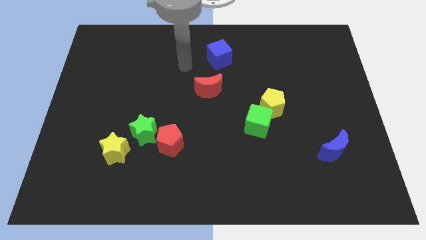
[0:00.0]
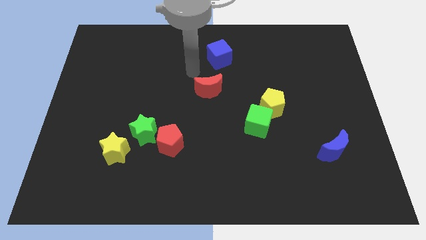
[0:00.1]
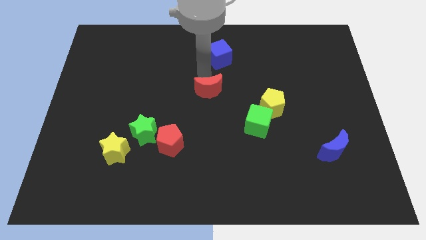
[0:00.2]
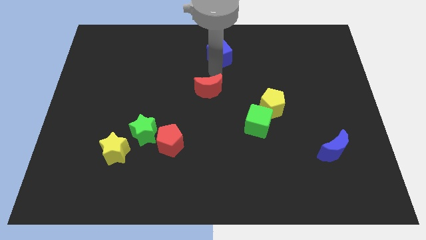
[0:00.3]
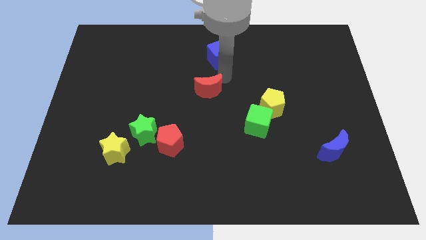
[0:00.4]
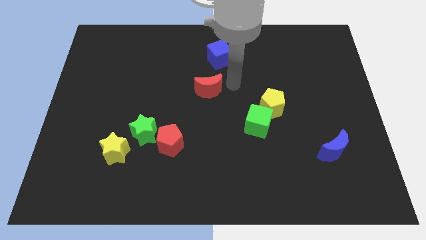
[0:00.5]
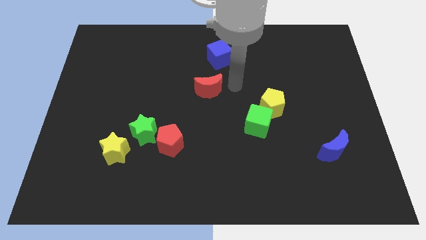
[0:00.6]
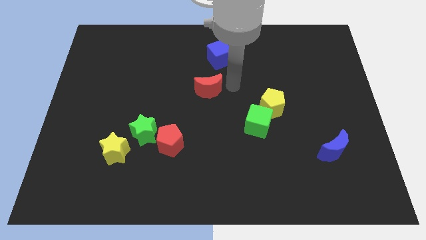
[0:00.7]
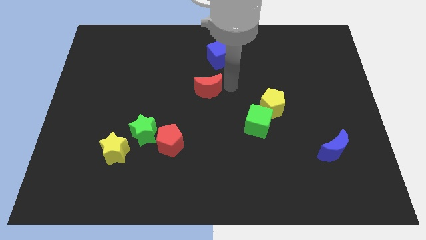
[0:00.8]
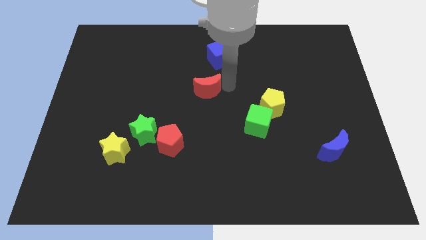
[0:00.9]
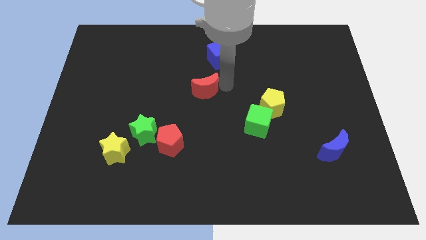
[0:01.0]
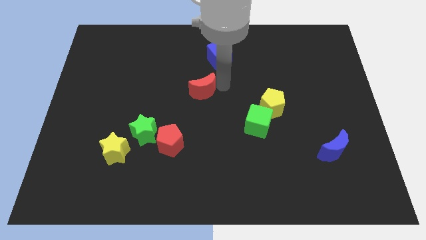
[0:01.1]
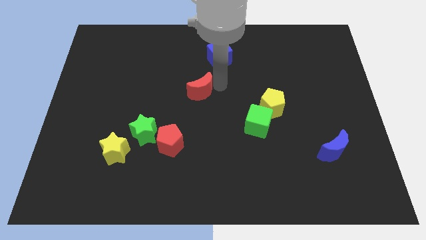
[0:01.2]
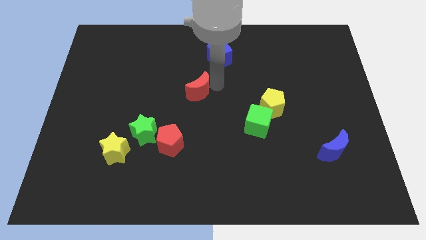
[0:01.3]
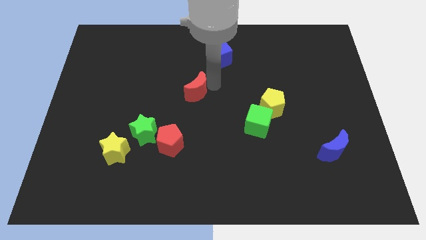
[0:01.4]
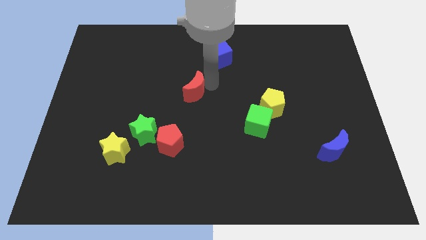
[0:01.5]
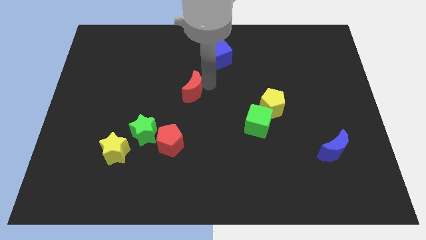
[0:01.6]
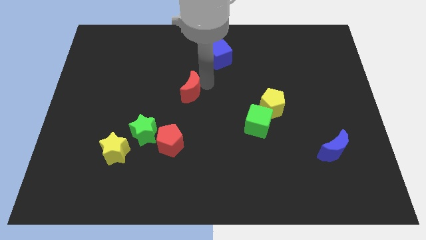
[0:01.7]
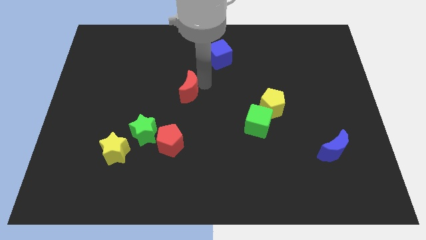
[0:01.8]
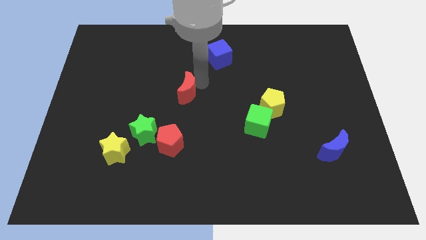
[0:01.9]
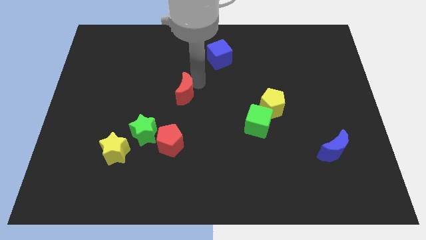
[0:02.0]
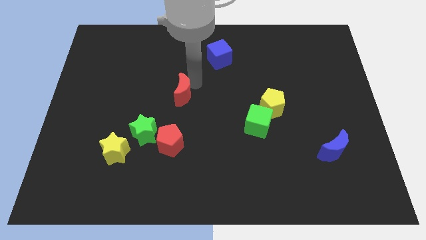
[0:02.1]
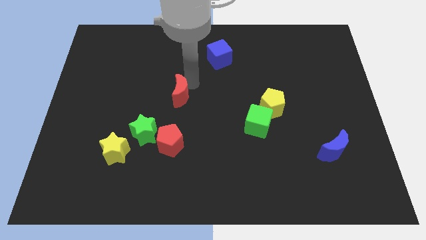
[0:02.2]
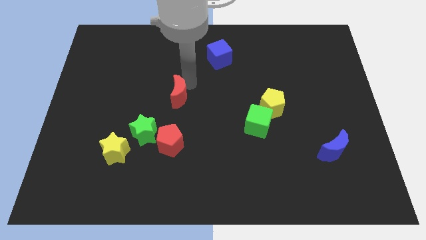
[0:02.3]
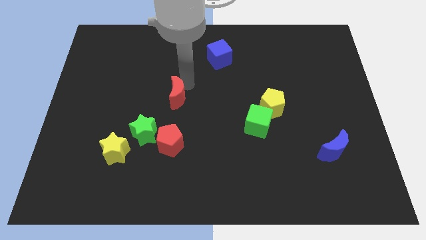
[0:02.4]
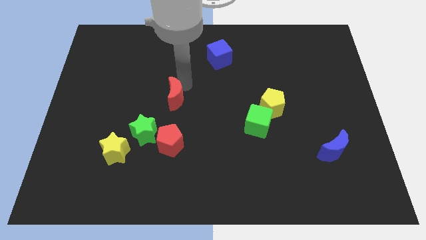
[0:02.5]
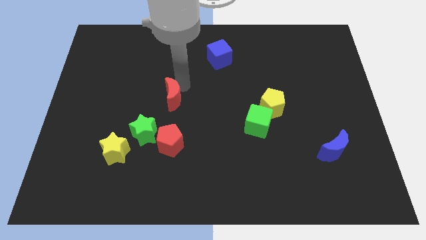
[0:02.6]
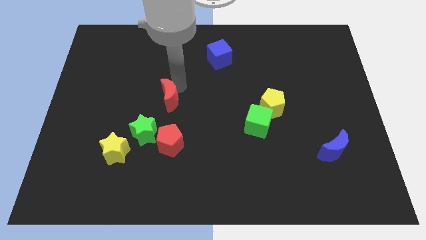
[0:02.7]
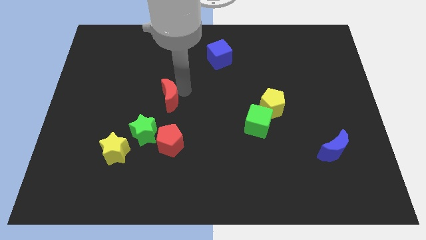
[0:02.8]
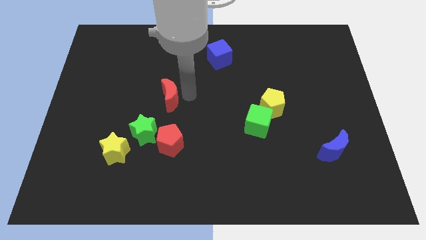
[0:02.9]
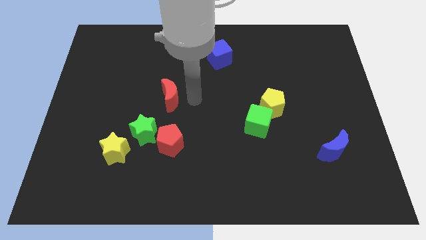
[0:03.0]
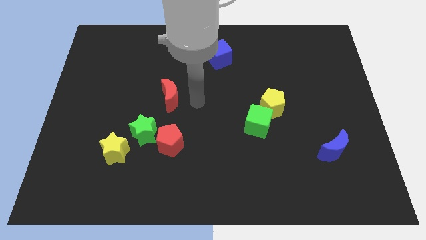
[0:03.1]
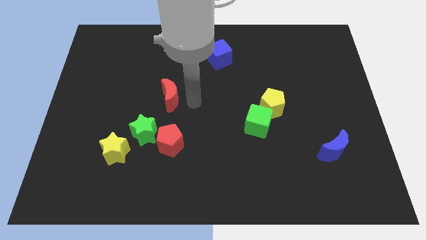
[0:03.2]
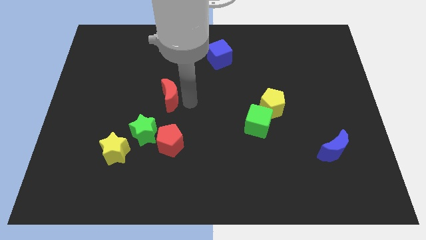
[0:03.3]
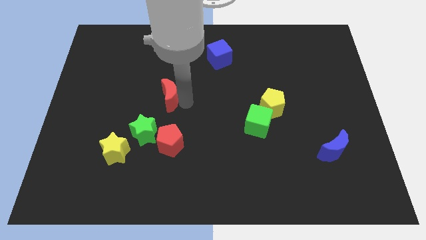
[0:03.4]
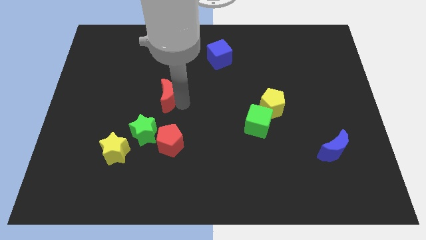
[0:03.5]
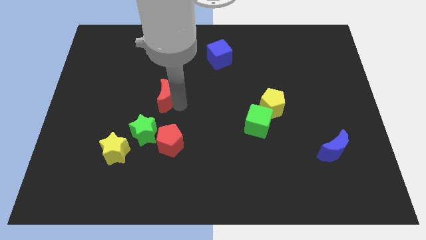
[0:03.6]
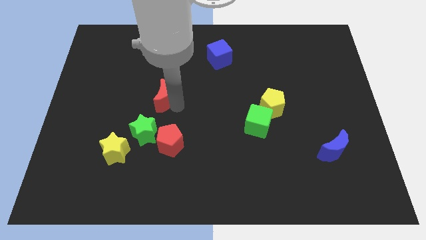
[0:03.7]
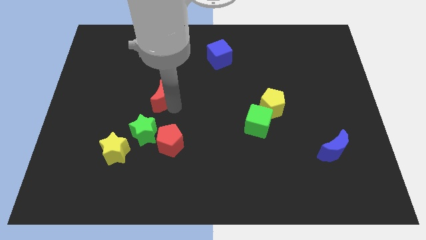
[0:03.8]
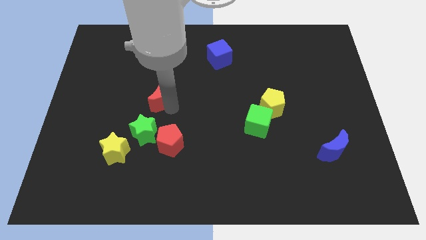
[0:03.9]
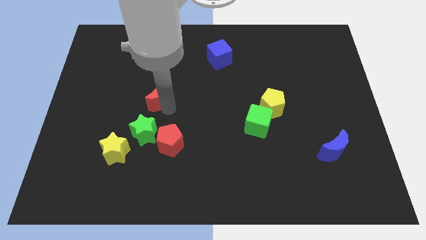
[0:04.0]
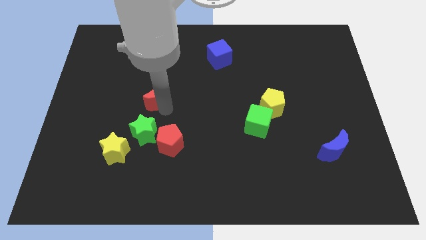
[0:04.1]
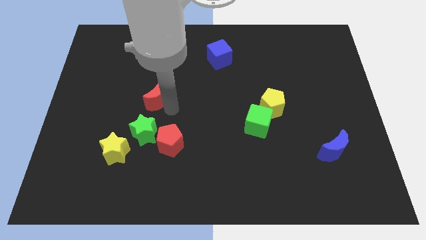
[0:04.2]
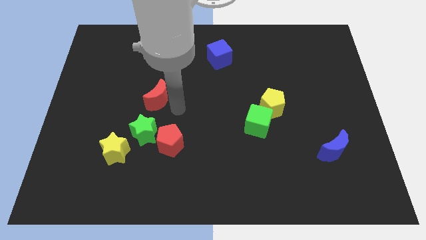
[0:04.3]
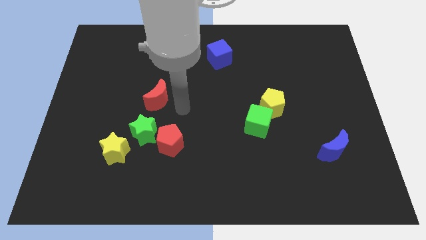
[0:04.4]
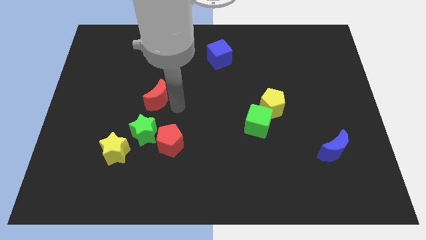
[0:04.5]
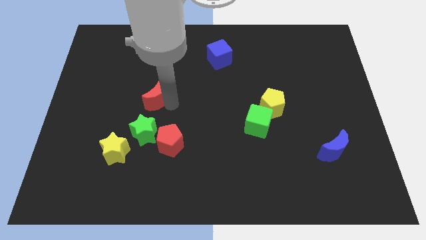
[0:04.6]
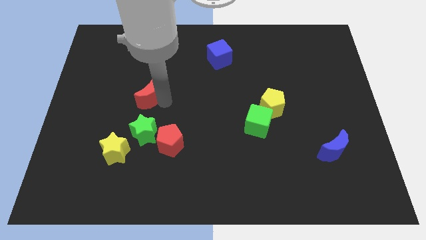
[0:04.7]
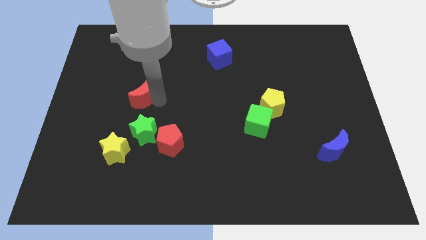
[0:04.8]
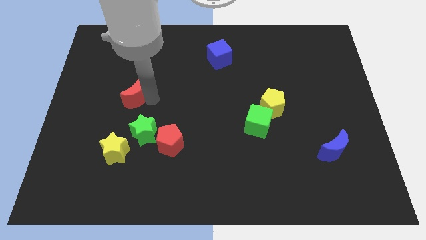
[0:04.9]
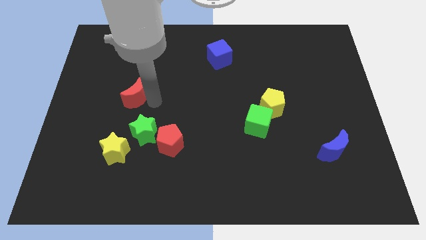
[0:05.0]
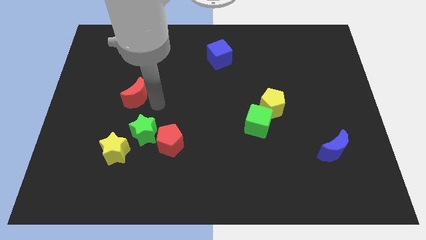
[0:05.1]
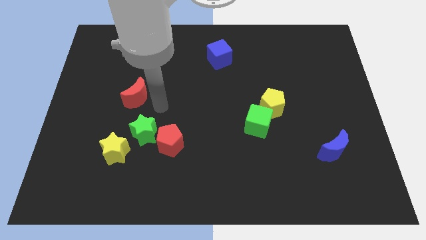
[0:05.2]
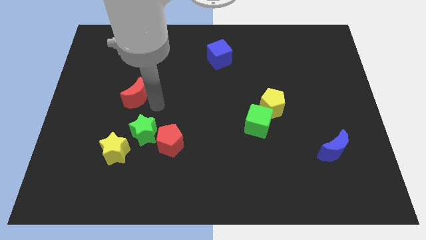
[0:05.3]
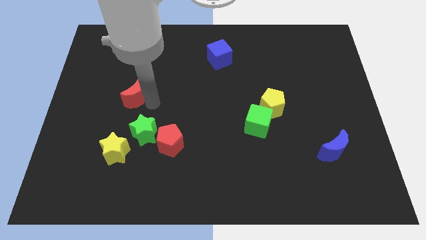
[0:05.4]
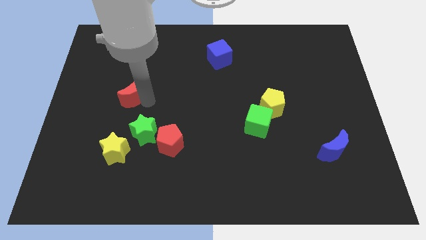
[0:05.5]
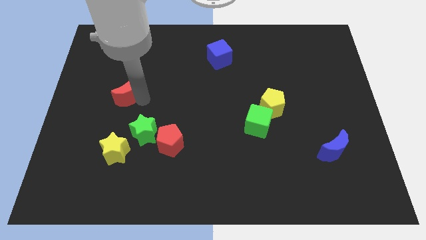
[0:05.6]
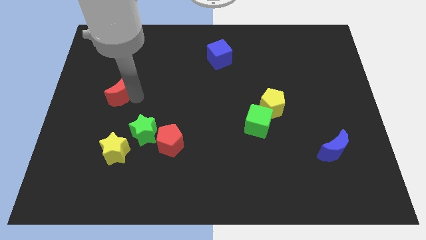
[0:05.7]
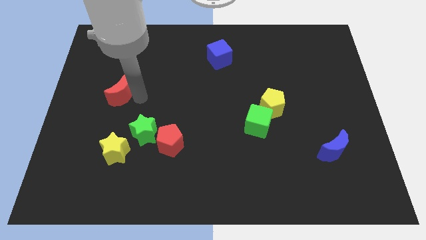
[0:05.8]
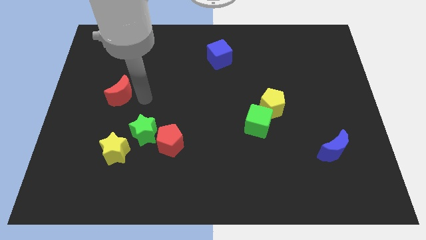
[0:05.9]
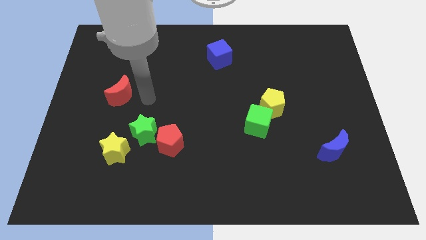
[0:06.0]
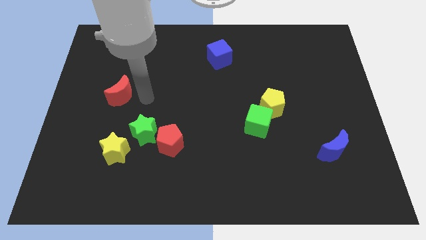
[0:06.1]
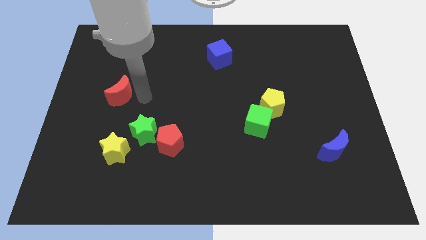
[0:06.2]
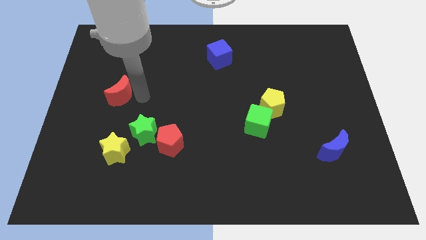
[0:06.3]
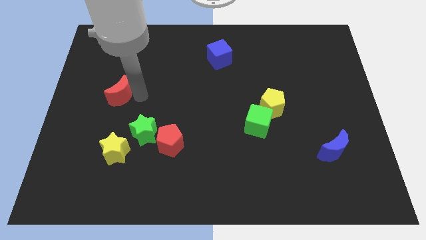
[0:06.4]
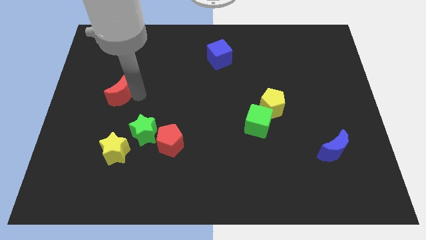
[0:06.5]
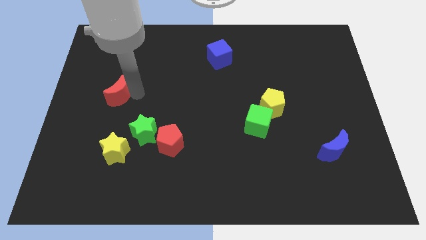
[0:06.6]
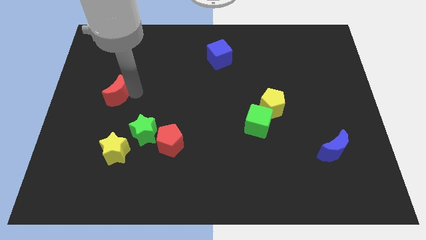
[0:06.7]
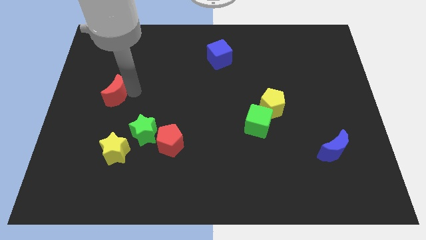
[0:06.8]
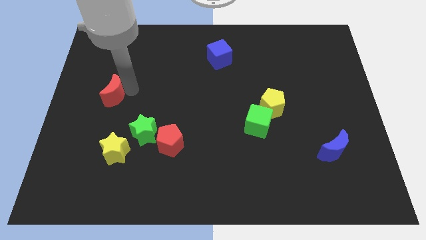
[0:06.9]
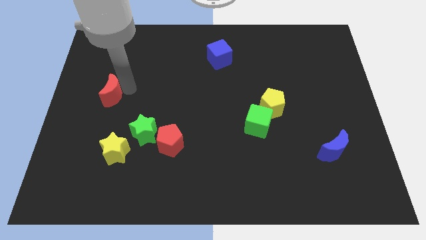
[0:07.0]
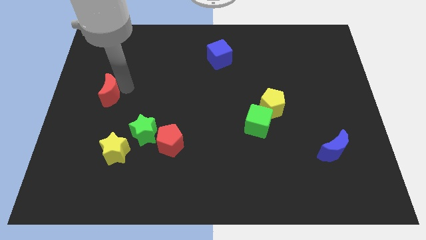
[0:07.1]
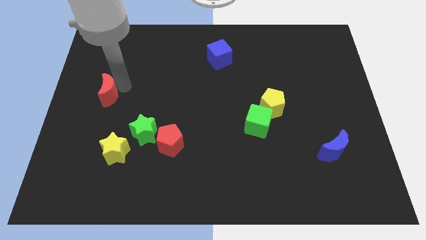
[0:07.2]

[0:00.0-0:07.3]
push the red moon to the left side
